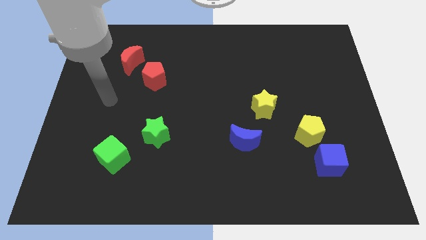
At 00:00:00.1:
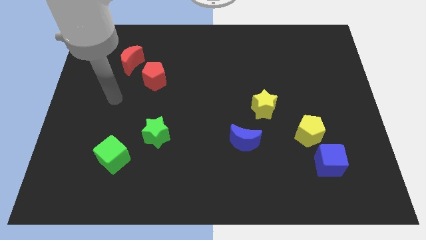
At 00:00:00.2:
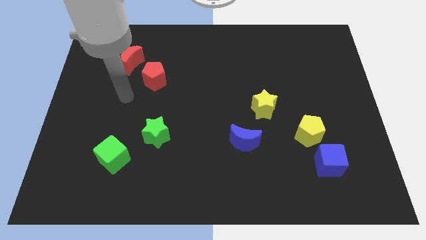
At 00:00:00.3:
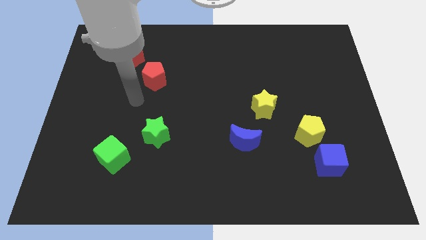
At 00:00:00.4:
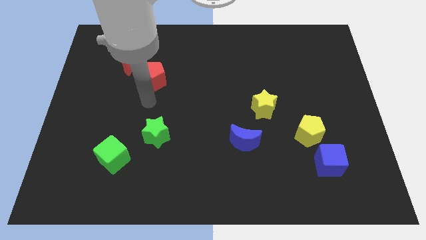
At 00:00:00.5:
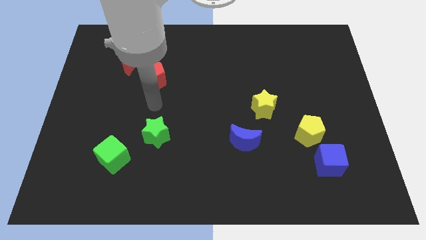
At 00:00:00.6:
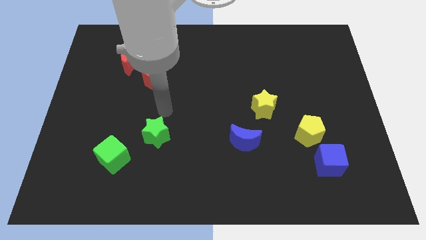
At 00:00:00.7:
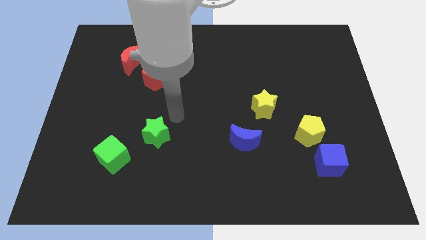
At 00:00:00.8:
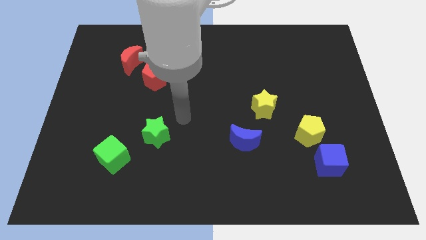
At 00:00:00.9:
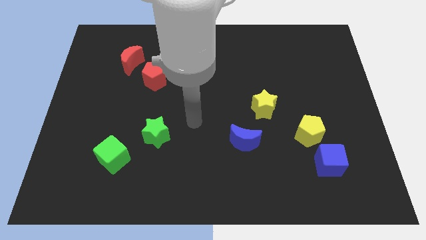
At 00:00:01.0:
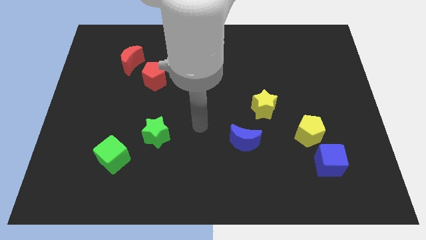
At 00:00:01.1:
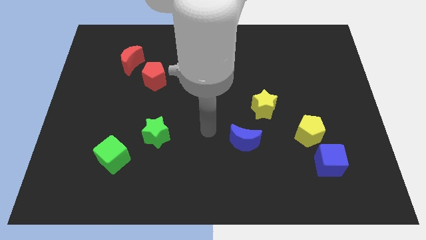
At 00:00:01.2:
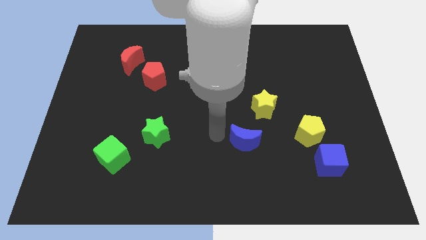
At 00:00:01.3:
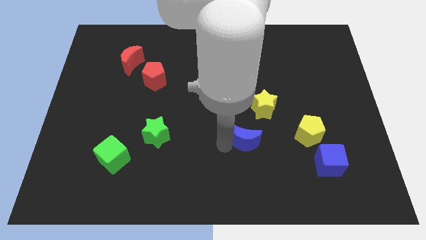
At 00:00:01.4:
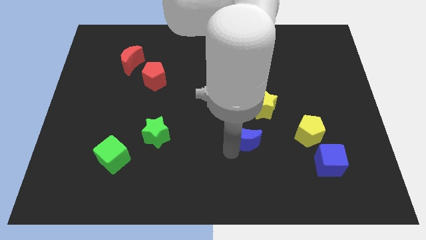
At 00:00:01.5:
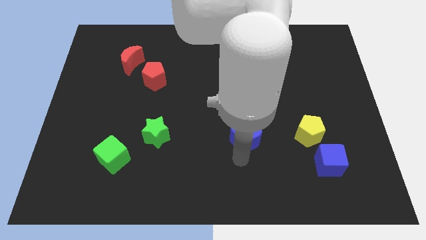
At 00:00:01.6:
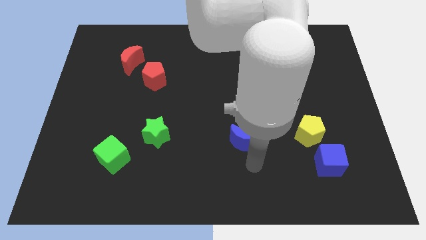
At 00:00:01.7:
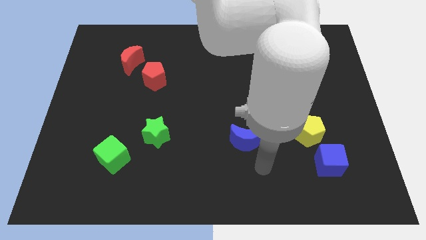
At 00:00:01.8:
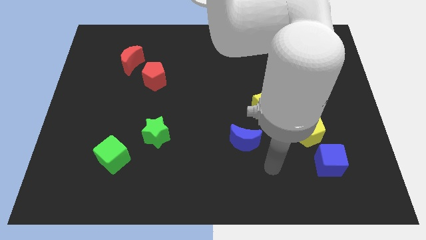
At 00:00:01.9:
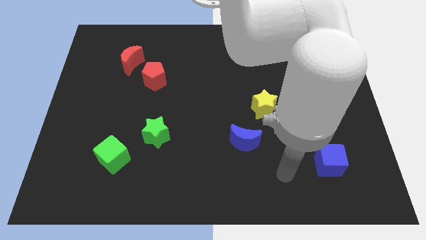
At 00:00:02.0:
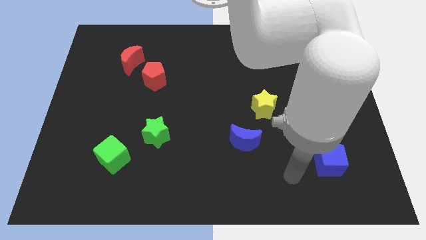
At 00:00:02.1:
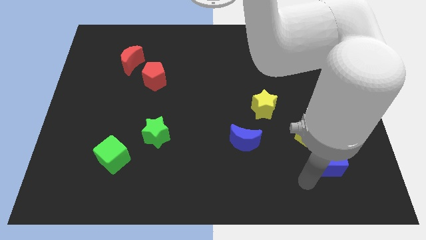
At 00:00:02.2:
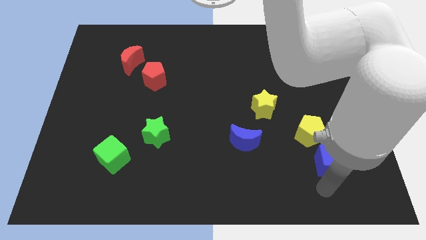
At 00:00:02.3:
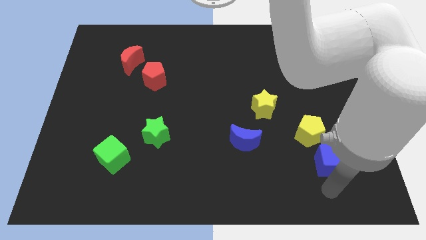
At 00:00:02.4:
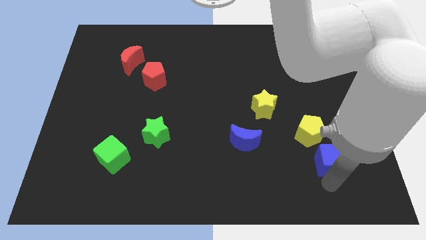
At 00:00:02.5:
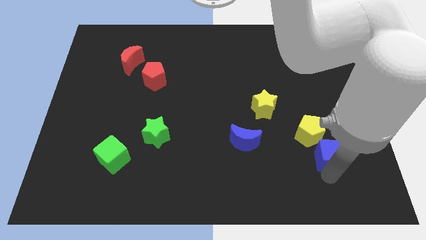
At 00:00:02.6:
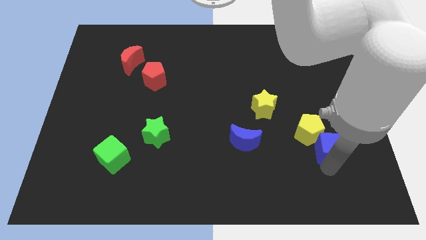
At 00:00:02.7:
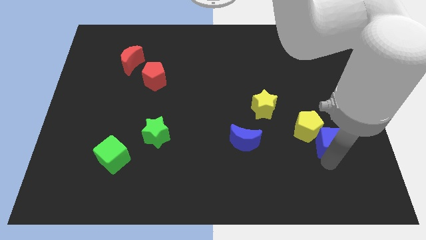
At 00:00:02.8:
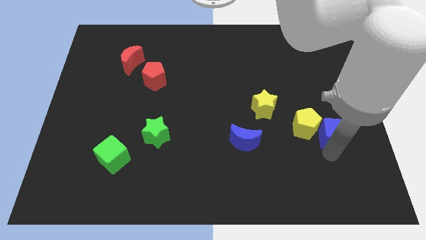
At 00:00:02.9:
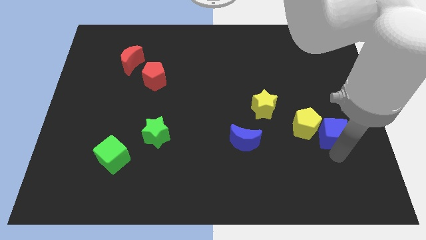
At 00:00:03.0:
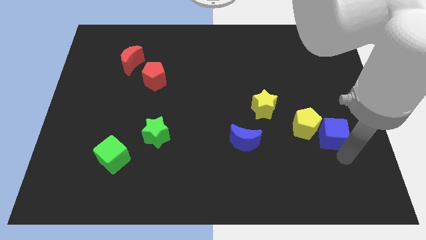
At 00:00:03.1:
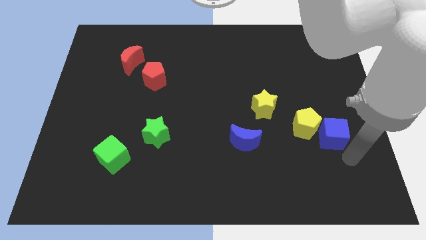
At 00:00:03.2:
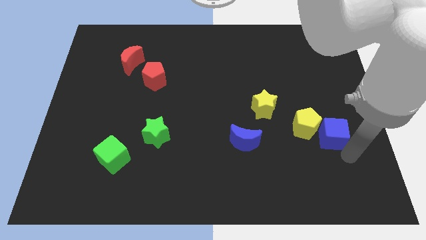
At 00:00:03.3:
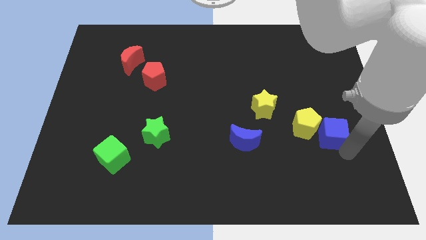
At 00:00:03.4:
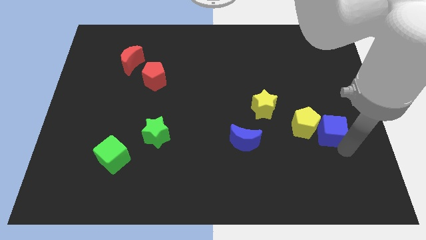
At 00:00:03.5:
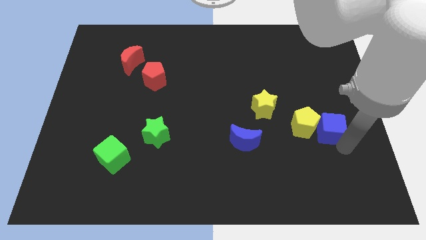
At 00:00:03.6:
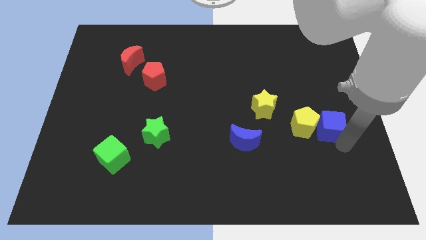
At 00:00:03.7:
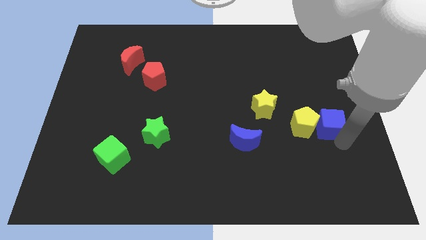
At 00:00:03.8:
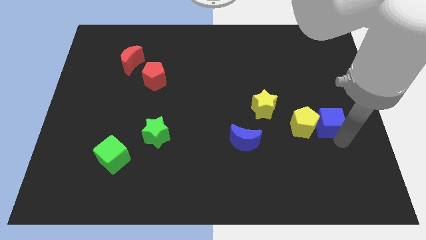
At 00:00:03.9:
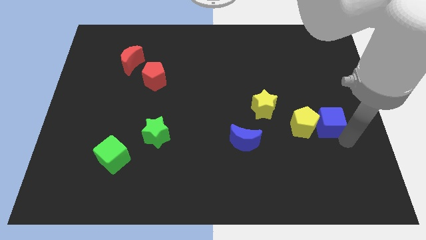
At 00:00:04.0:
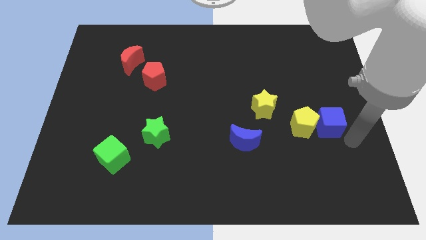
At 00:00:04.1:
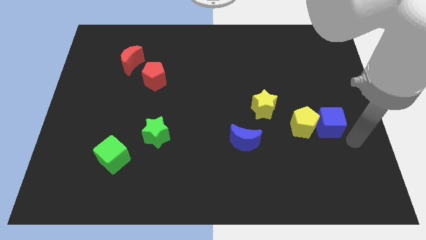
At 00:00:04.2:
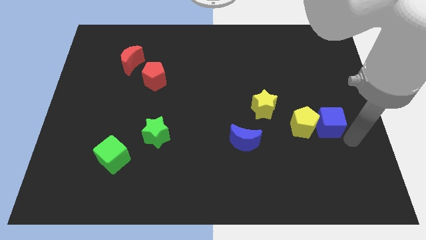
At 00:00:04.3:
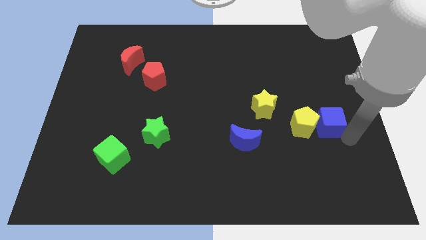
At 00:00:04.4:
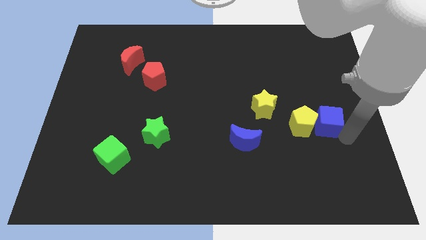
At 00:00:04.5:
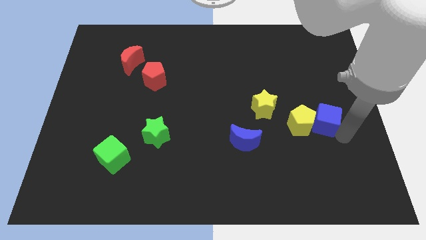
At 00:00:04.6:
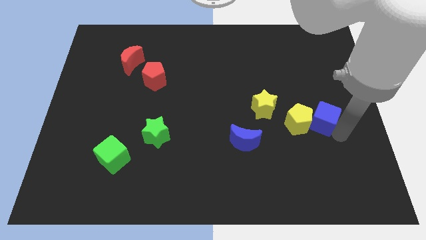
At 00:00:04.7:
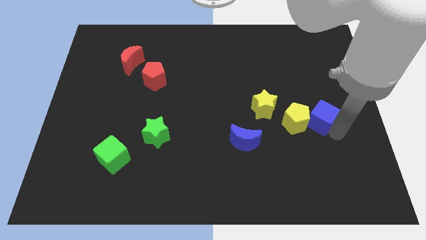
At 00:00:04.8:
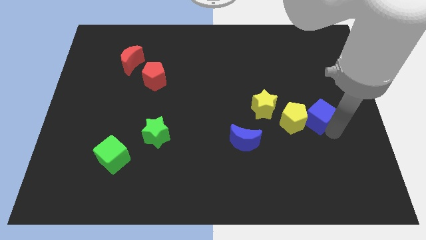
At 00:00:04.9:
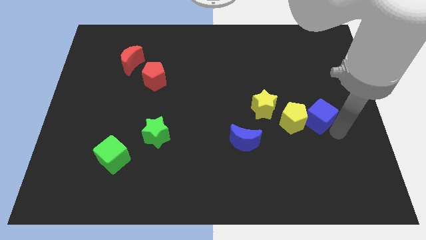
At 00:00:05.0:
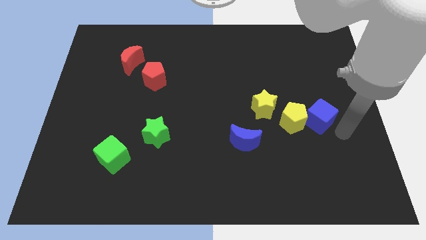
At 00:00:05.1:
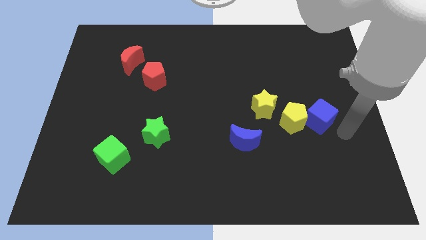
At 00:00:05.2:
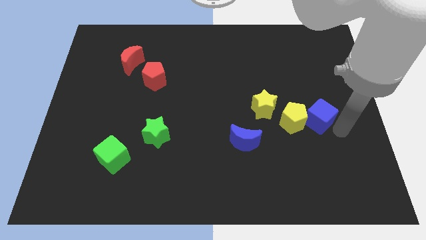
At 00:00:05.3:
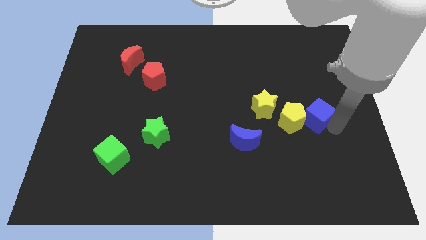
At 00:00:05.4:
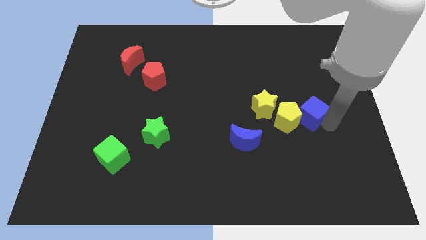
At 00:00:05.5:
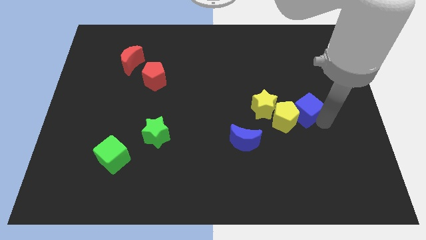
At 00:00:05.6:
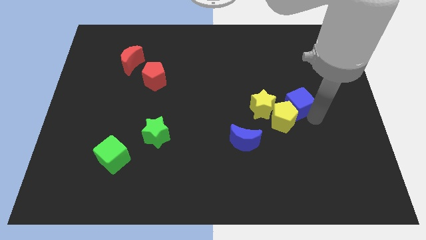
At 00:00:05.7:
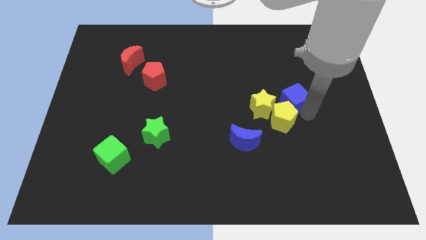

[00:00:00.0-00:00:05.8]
slide the blue cube diagonally up and to the right of the yellow star
